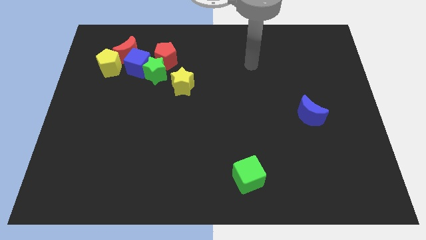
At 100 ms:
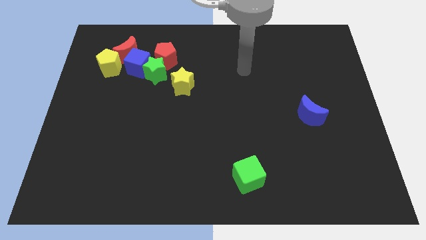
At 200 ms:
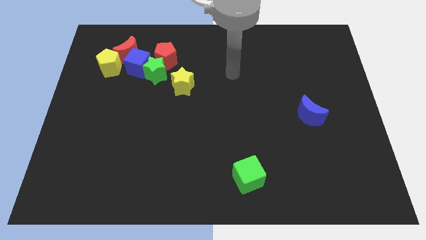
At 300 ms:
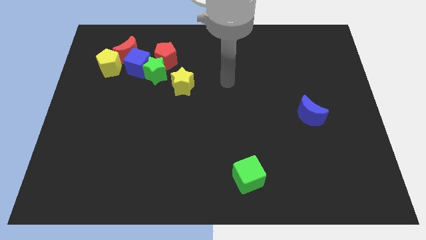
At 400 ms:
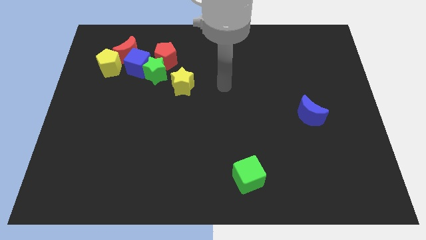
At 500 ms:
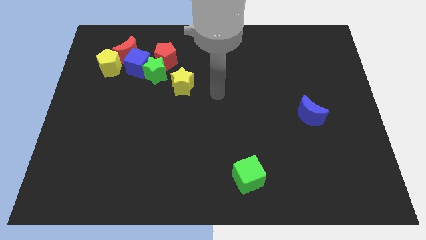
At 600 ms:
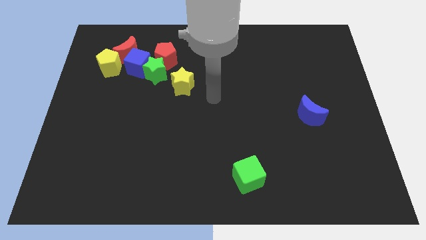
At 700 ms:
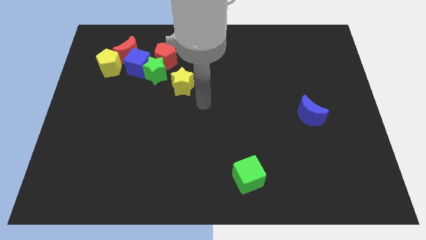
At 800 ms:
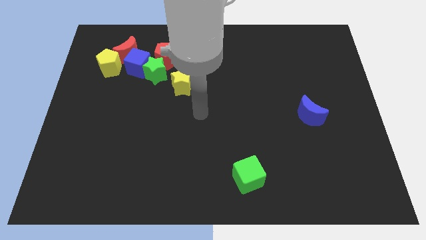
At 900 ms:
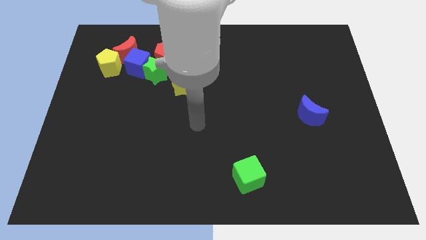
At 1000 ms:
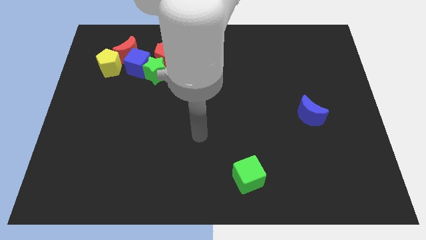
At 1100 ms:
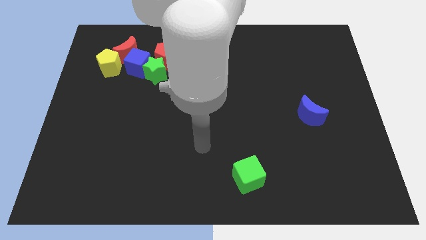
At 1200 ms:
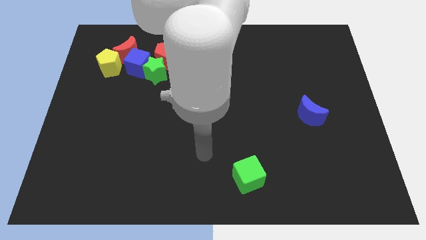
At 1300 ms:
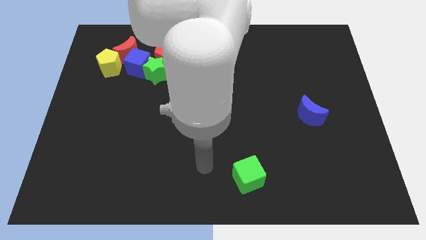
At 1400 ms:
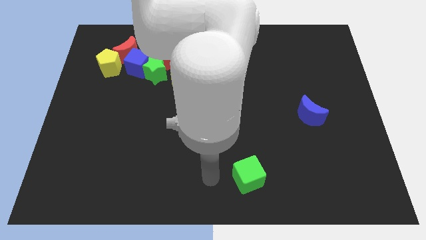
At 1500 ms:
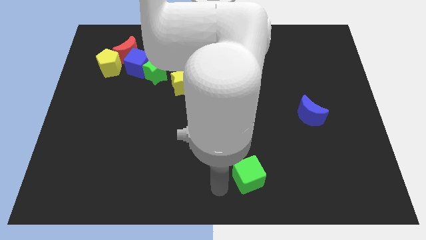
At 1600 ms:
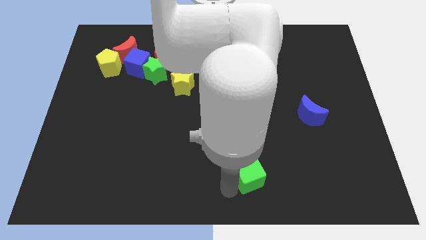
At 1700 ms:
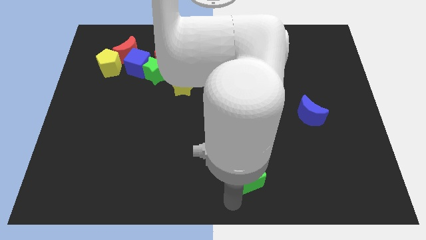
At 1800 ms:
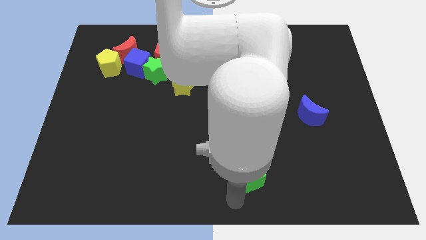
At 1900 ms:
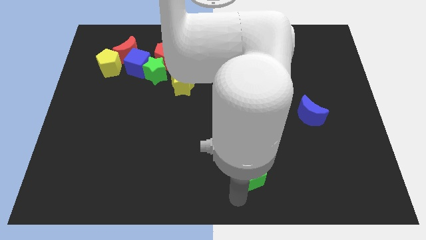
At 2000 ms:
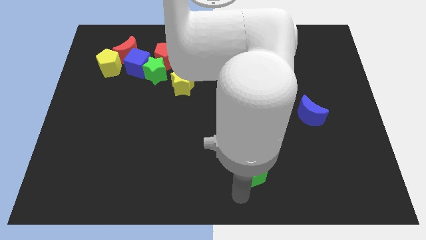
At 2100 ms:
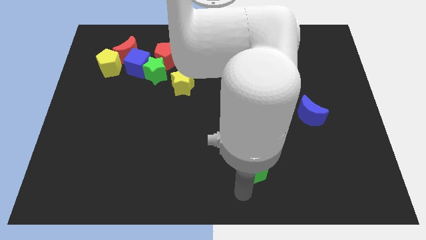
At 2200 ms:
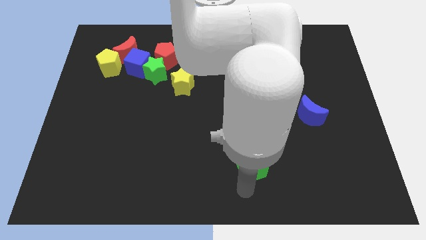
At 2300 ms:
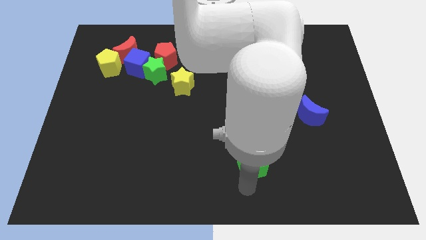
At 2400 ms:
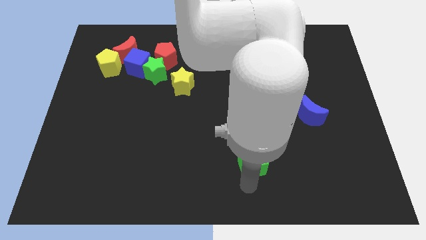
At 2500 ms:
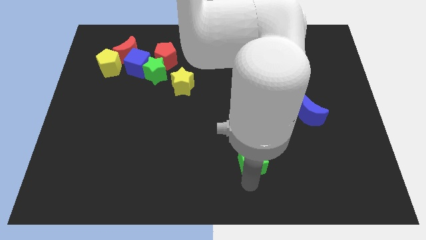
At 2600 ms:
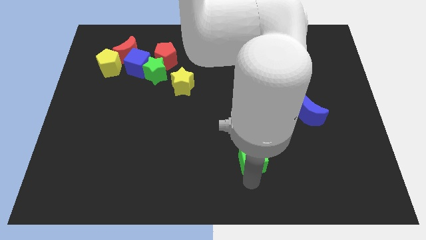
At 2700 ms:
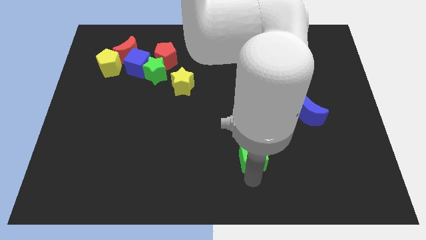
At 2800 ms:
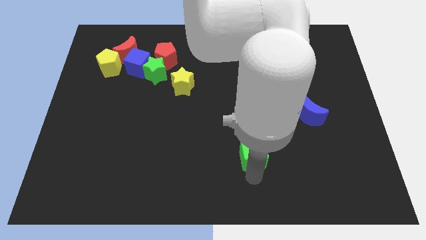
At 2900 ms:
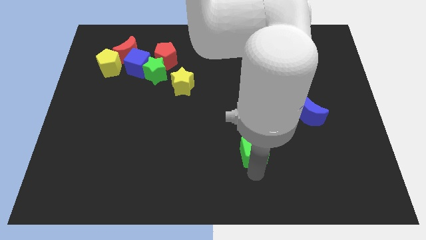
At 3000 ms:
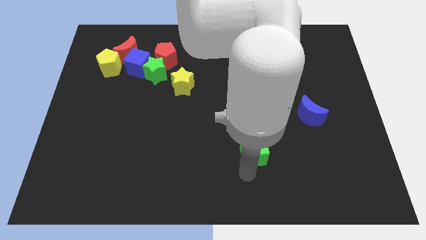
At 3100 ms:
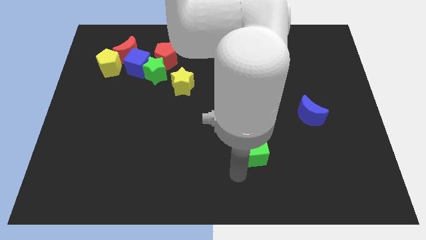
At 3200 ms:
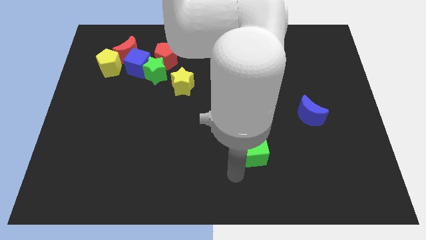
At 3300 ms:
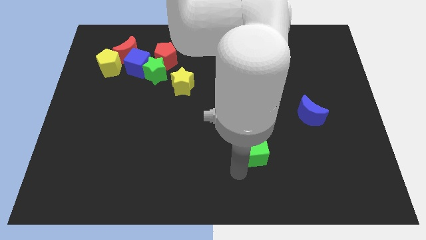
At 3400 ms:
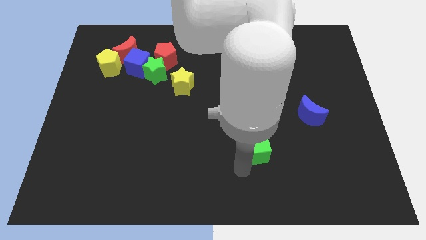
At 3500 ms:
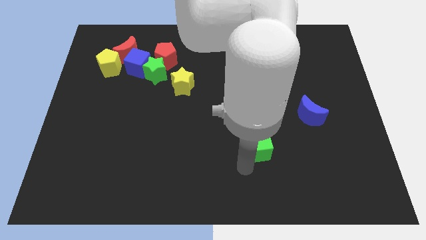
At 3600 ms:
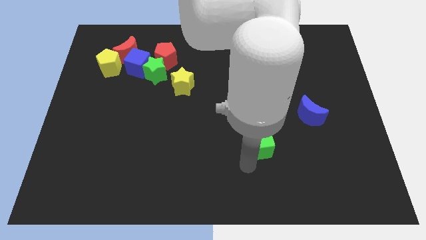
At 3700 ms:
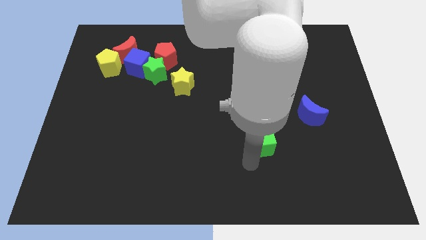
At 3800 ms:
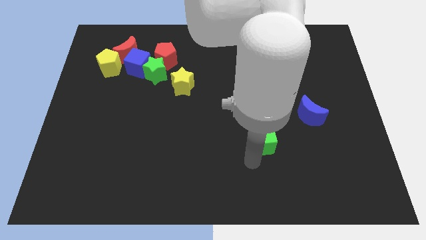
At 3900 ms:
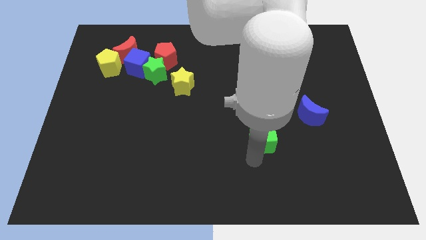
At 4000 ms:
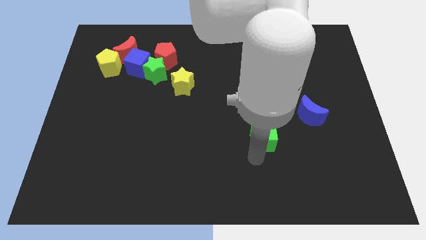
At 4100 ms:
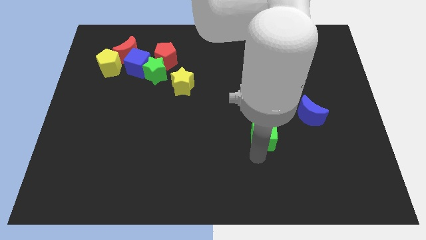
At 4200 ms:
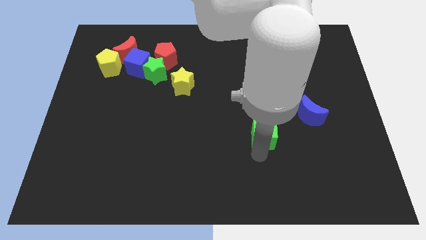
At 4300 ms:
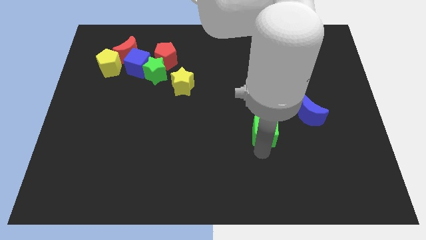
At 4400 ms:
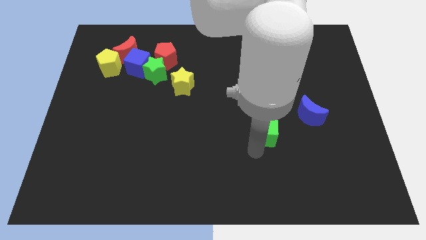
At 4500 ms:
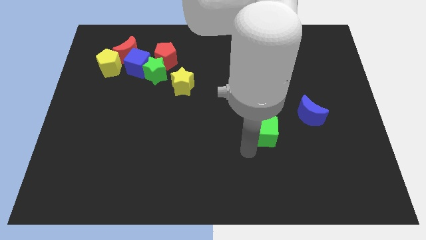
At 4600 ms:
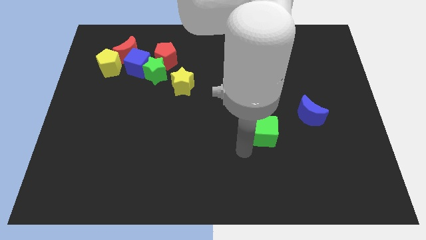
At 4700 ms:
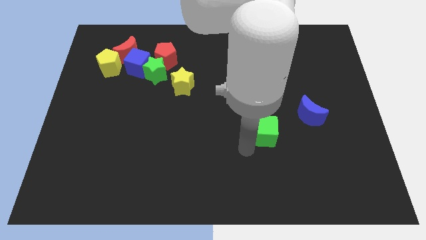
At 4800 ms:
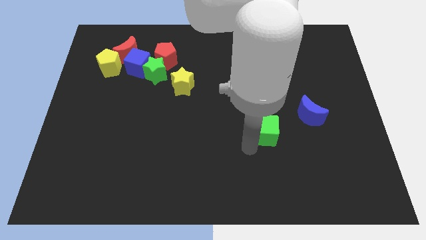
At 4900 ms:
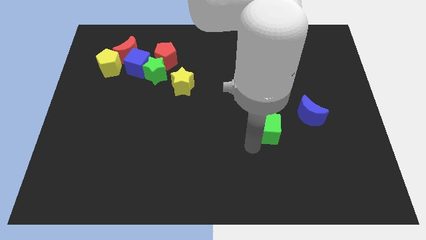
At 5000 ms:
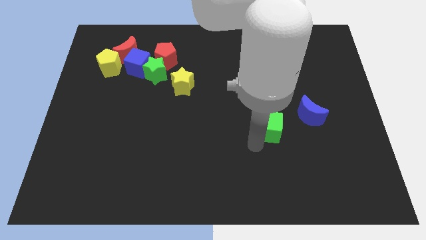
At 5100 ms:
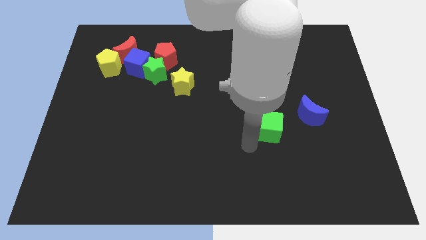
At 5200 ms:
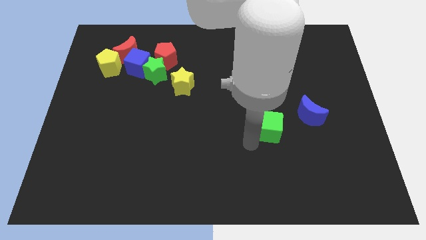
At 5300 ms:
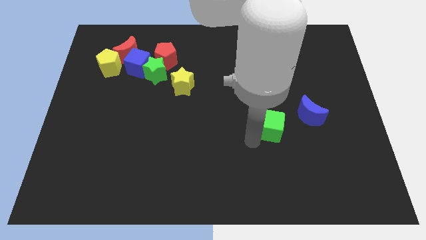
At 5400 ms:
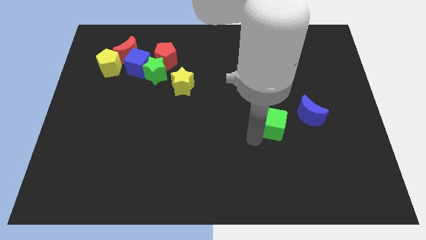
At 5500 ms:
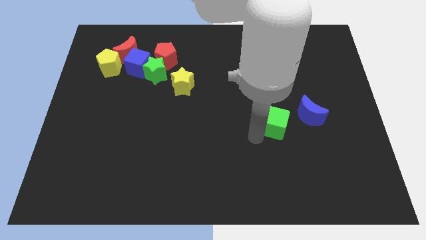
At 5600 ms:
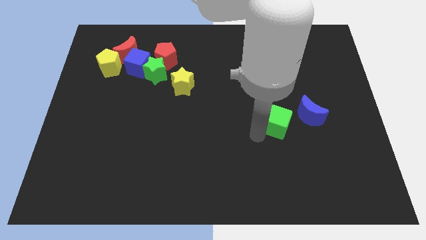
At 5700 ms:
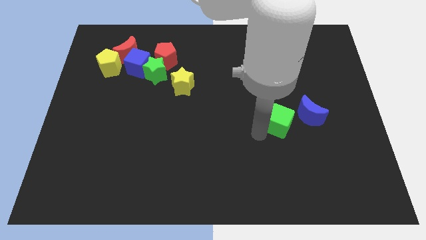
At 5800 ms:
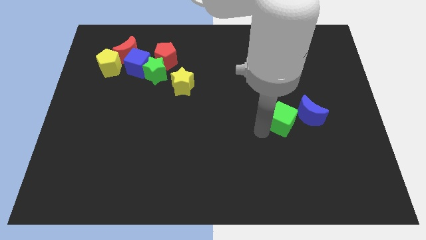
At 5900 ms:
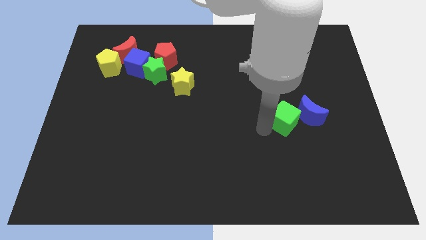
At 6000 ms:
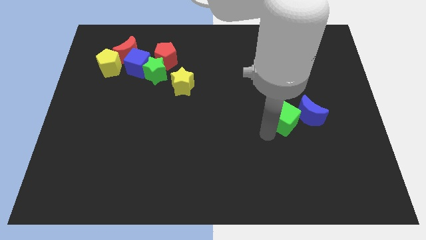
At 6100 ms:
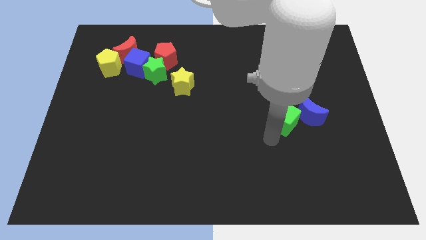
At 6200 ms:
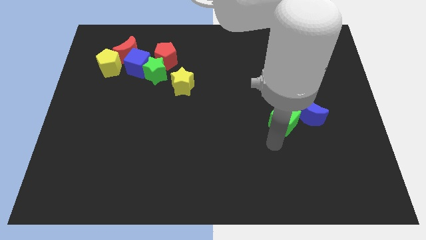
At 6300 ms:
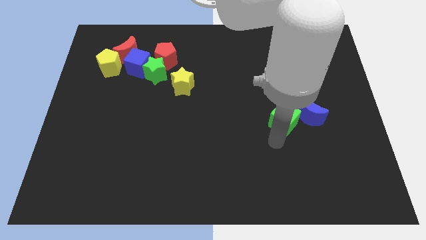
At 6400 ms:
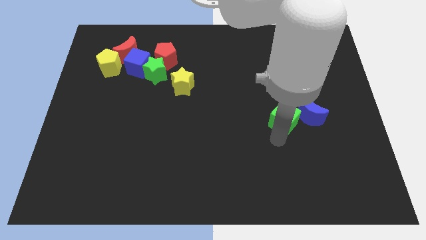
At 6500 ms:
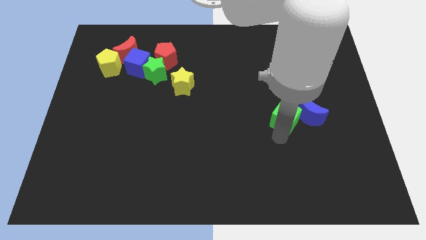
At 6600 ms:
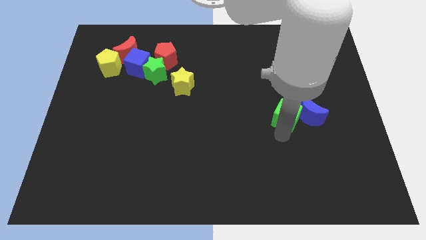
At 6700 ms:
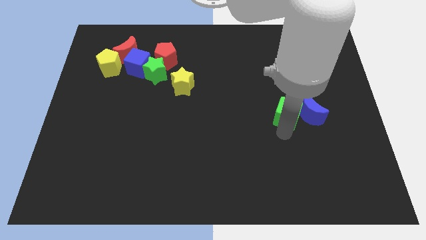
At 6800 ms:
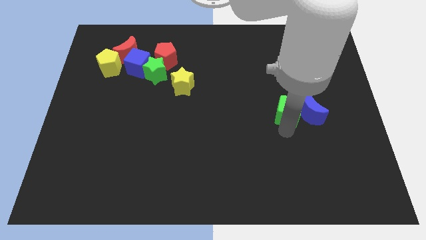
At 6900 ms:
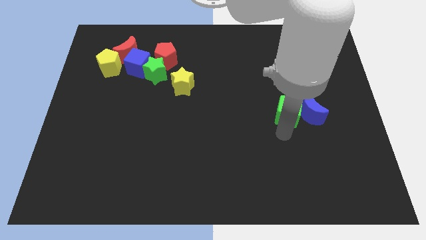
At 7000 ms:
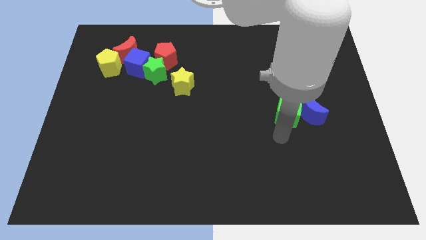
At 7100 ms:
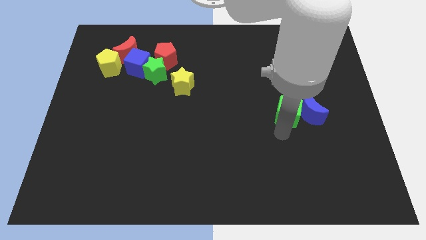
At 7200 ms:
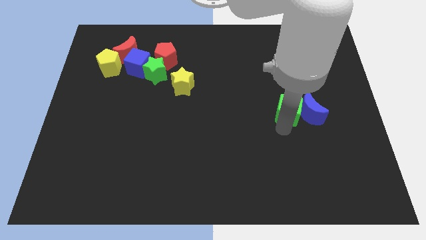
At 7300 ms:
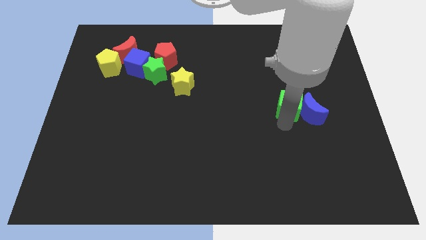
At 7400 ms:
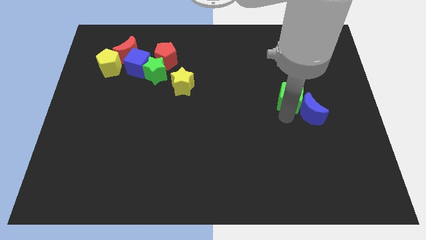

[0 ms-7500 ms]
move the green cube to the top side of the blue moon
